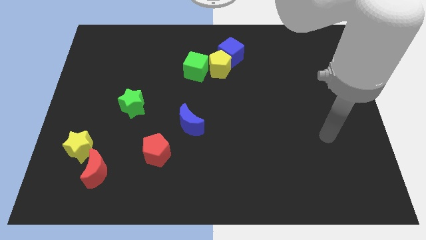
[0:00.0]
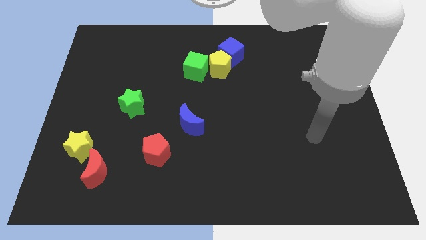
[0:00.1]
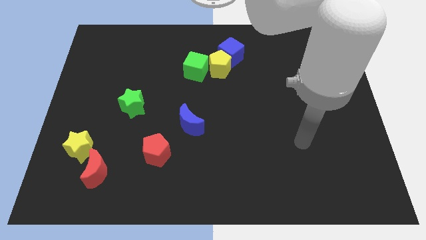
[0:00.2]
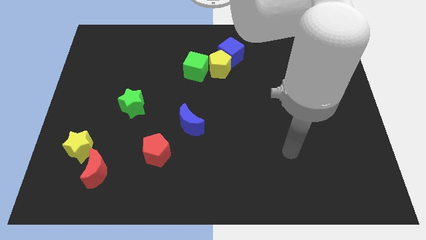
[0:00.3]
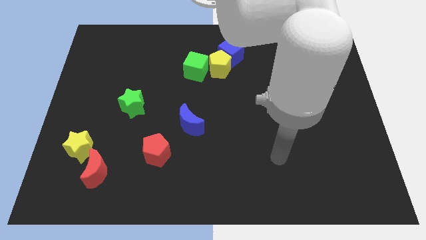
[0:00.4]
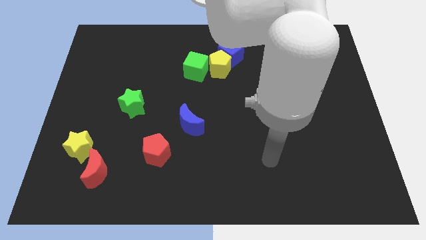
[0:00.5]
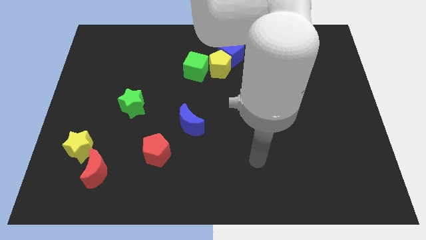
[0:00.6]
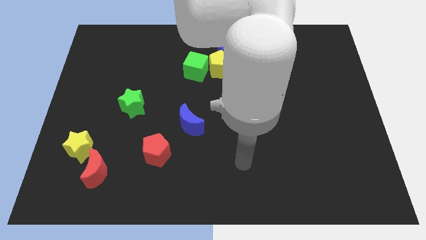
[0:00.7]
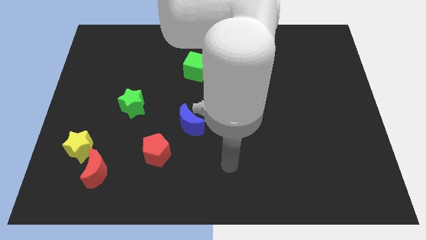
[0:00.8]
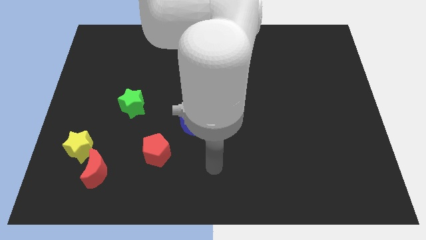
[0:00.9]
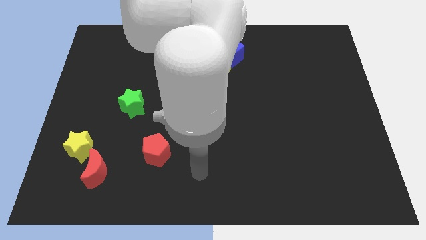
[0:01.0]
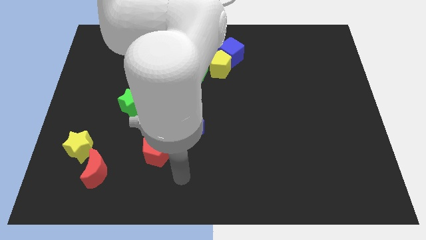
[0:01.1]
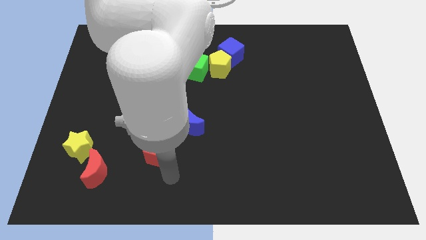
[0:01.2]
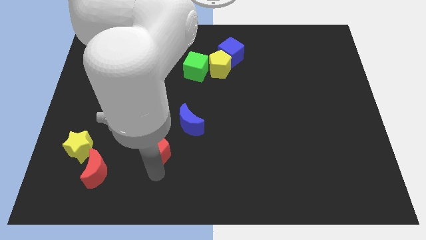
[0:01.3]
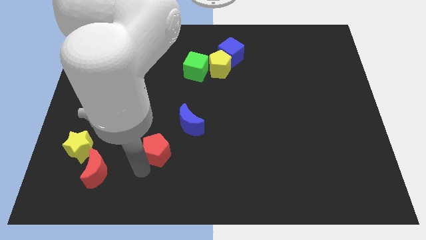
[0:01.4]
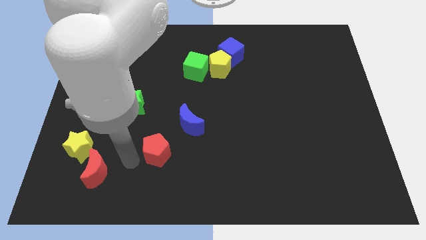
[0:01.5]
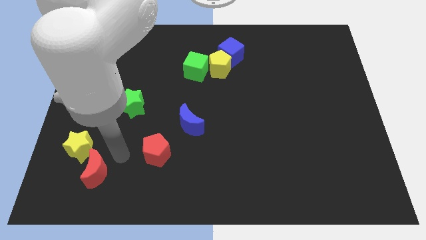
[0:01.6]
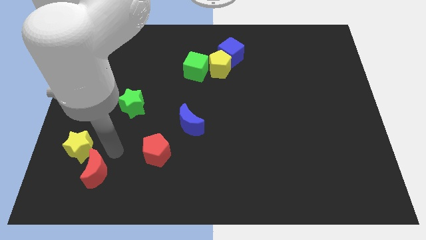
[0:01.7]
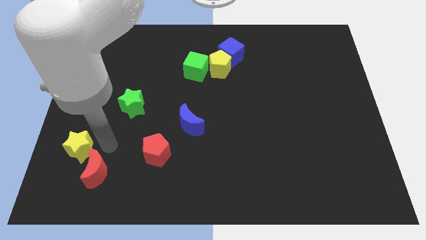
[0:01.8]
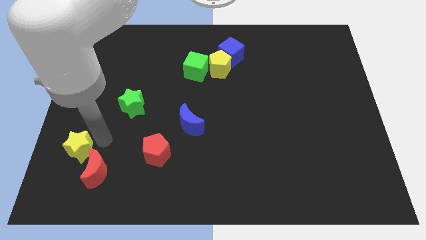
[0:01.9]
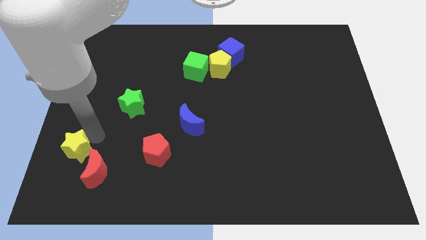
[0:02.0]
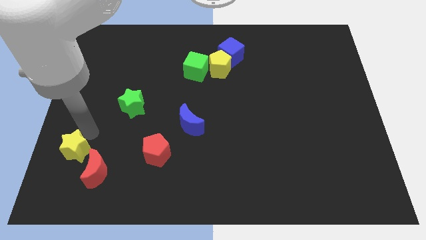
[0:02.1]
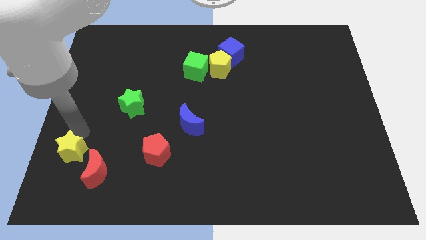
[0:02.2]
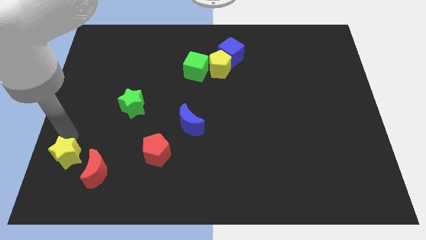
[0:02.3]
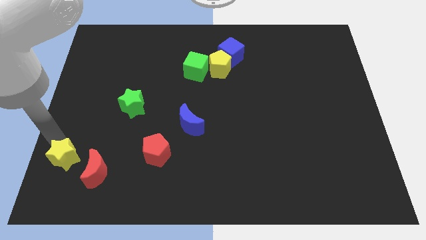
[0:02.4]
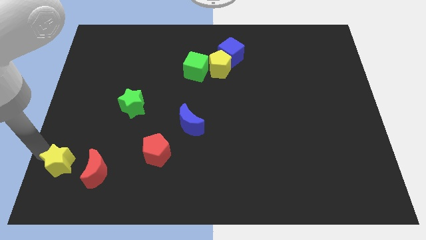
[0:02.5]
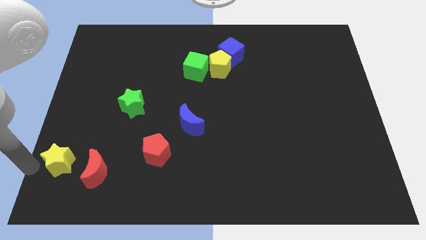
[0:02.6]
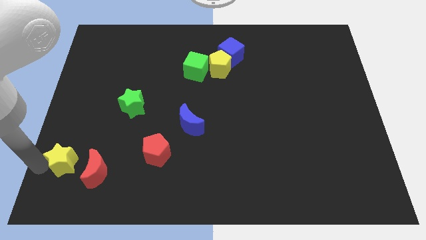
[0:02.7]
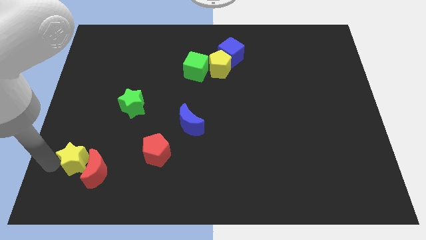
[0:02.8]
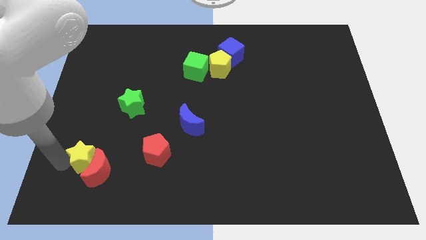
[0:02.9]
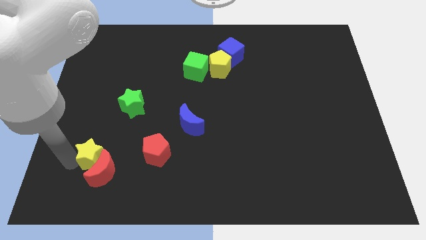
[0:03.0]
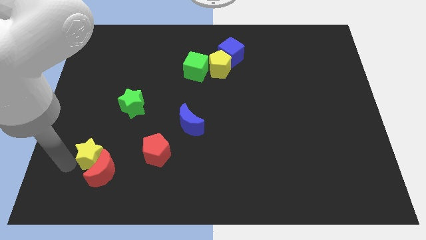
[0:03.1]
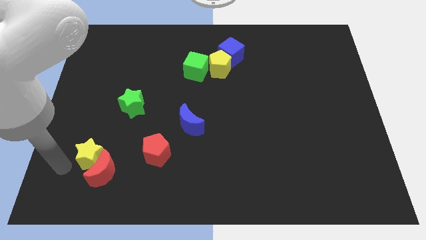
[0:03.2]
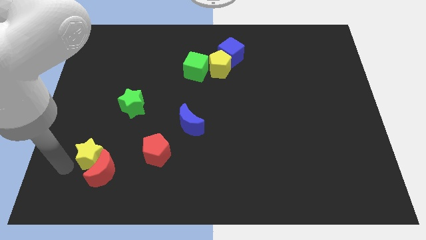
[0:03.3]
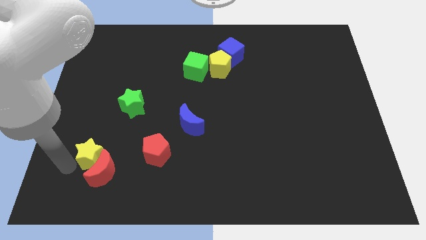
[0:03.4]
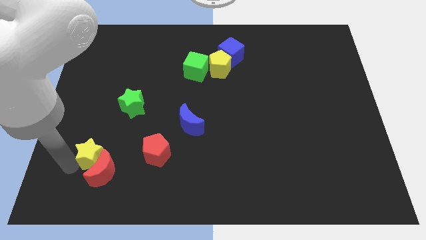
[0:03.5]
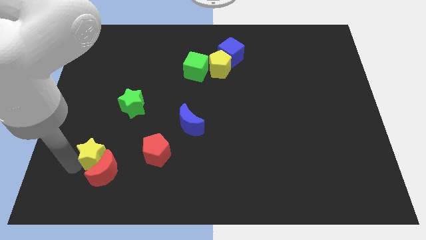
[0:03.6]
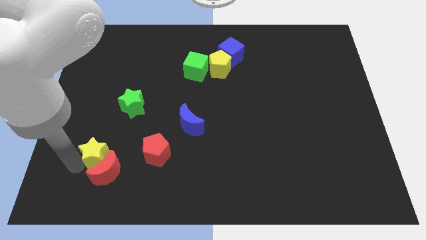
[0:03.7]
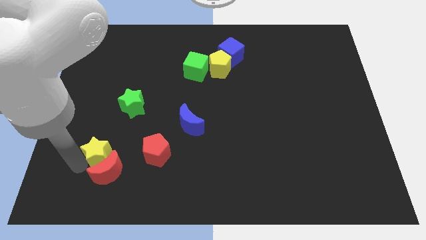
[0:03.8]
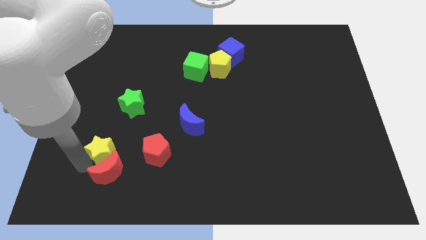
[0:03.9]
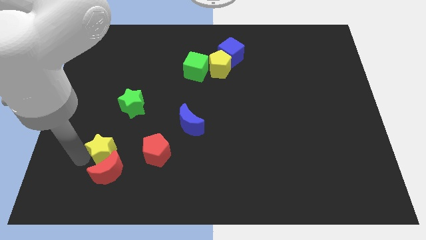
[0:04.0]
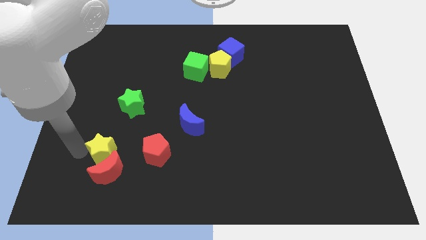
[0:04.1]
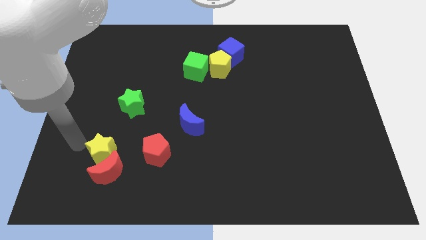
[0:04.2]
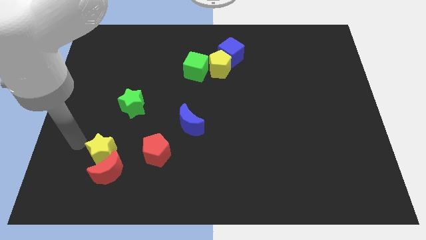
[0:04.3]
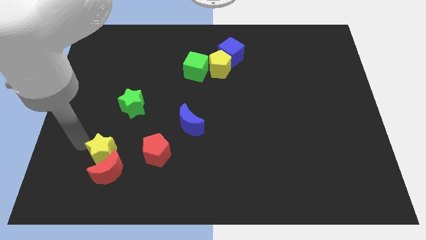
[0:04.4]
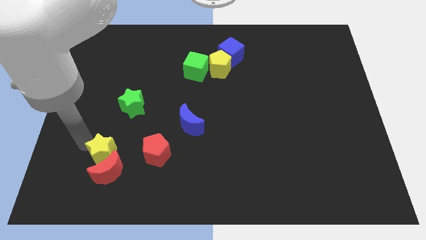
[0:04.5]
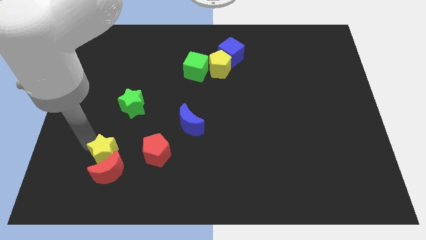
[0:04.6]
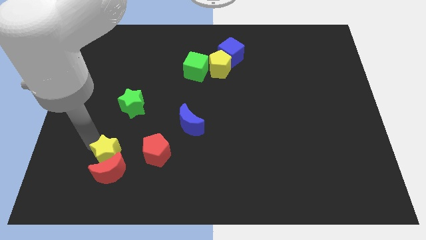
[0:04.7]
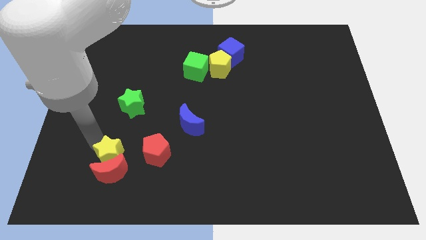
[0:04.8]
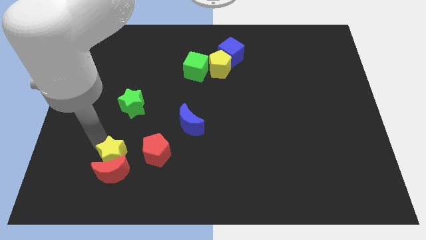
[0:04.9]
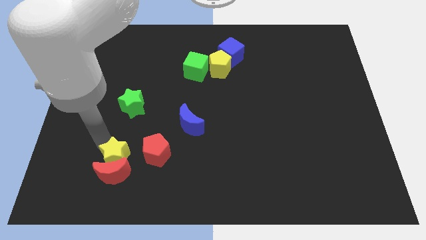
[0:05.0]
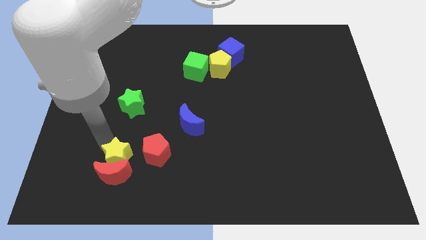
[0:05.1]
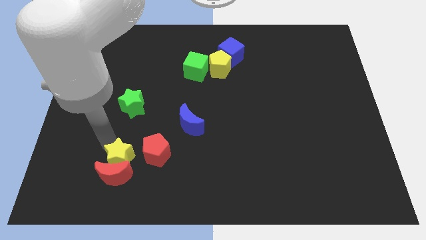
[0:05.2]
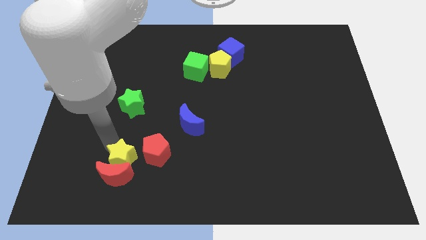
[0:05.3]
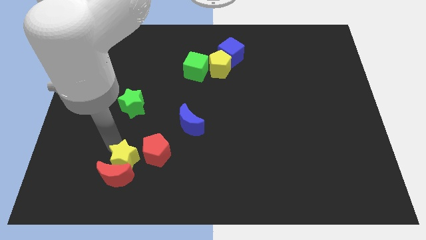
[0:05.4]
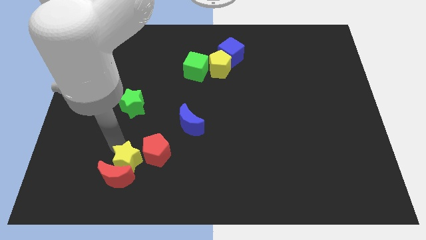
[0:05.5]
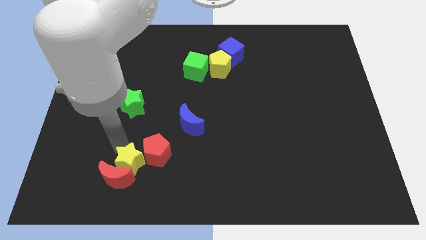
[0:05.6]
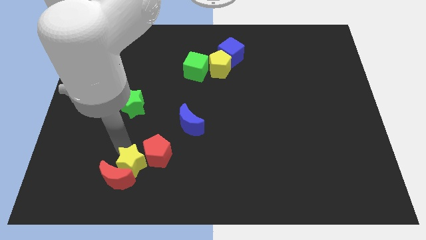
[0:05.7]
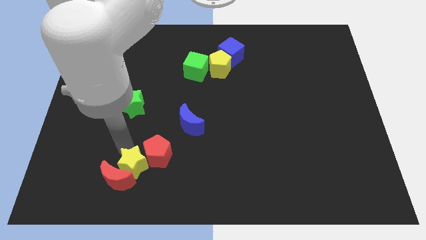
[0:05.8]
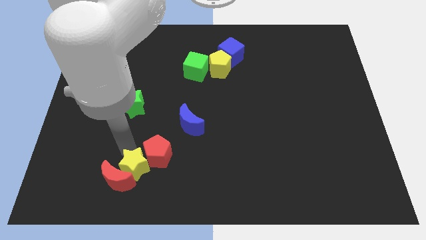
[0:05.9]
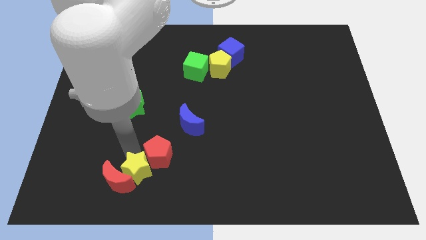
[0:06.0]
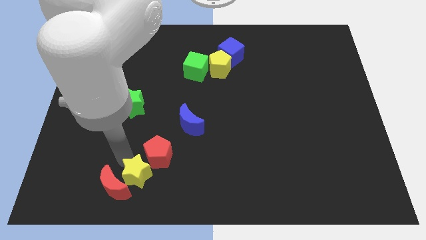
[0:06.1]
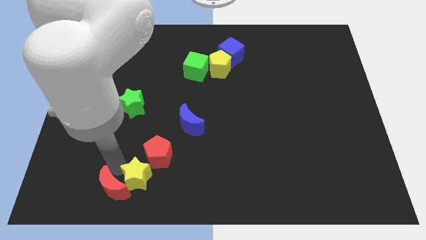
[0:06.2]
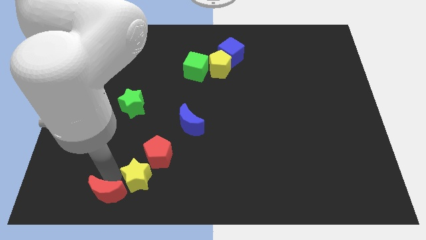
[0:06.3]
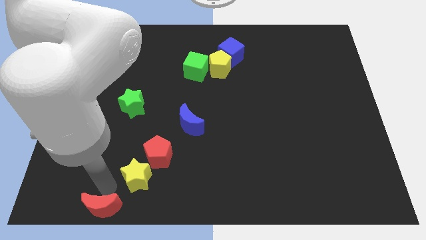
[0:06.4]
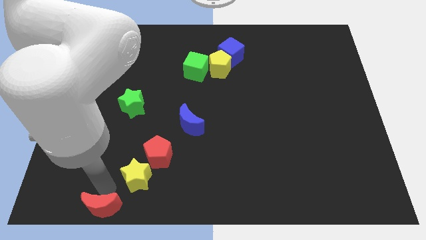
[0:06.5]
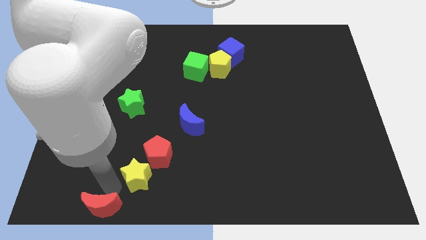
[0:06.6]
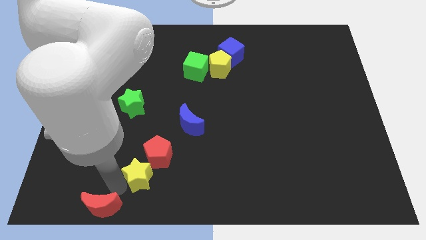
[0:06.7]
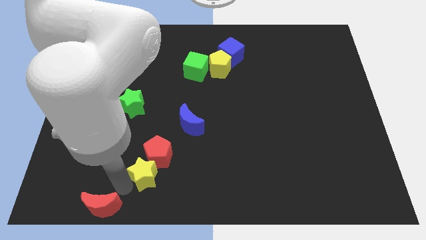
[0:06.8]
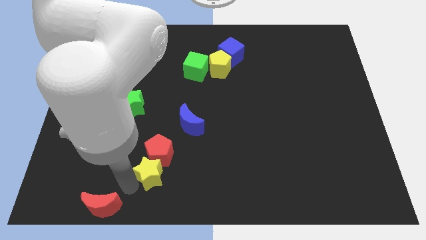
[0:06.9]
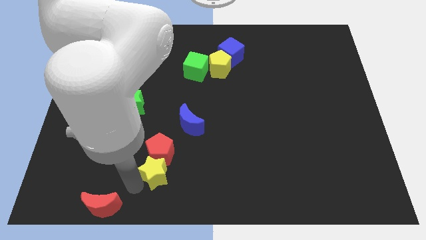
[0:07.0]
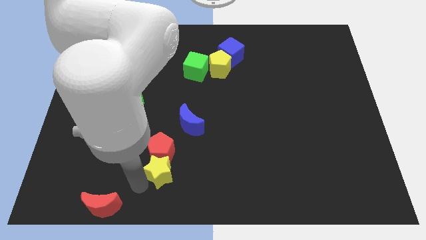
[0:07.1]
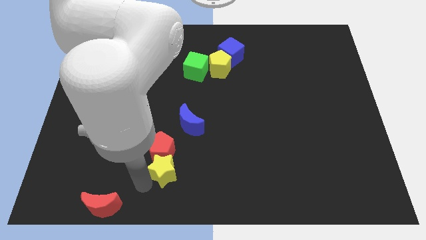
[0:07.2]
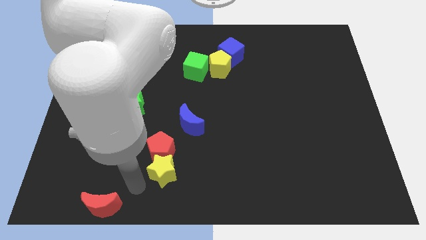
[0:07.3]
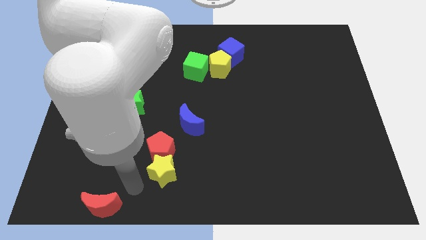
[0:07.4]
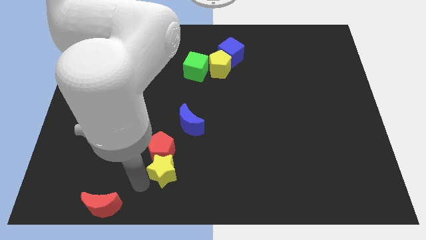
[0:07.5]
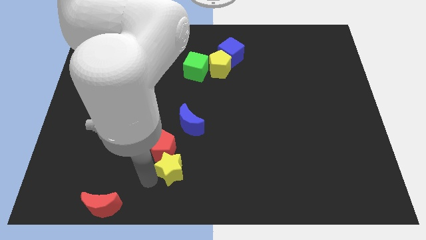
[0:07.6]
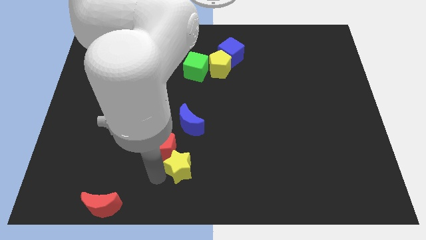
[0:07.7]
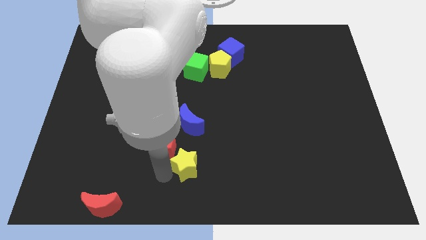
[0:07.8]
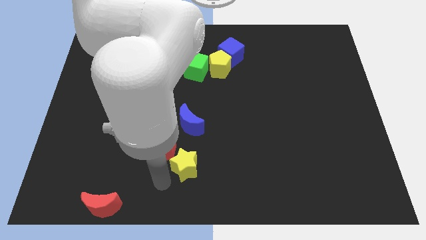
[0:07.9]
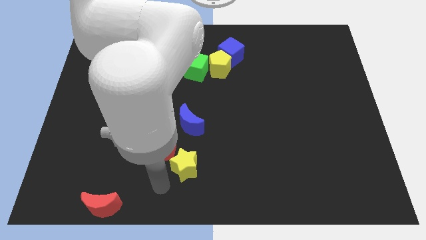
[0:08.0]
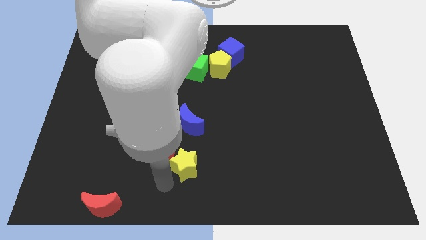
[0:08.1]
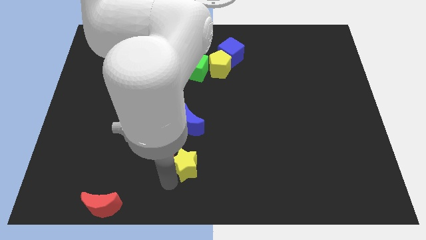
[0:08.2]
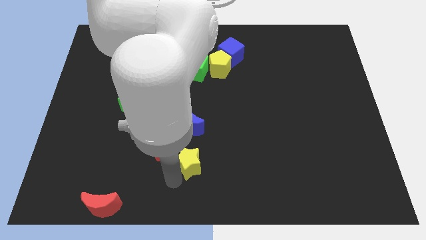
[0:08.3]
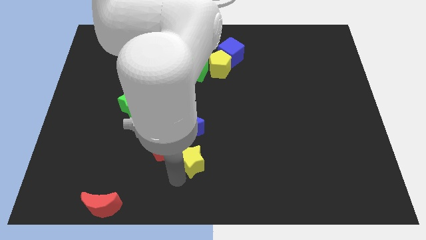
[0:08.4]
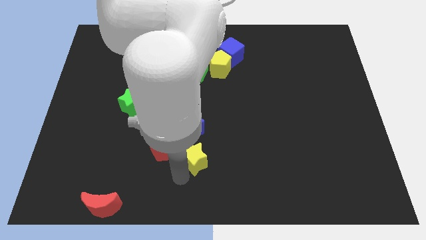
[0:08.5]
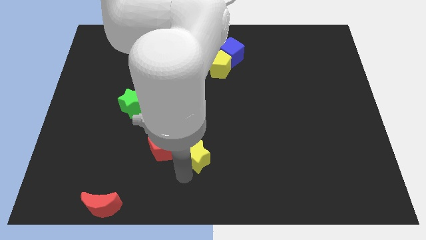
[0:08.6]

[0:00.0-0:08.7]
slide the yellow star diagonally down and to the right of the blue moon
